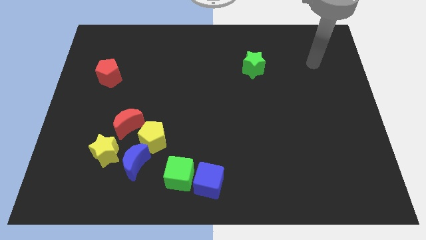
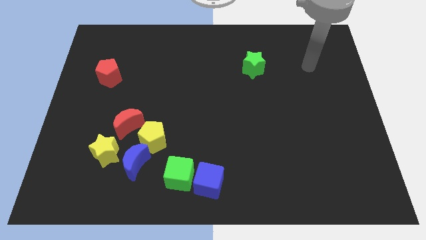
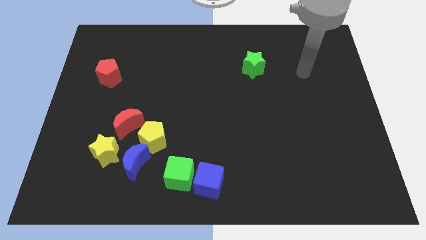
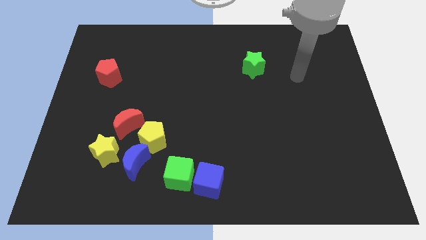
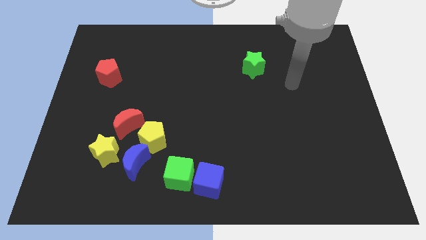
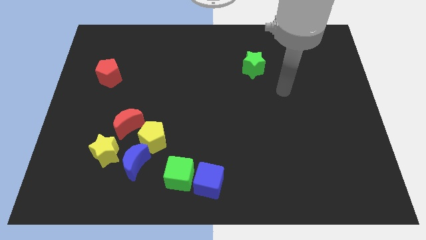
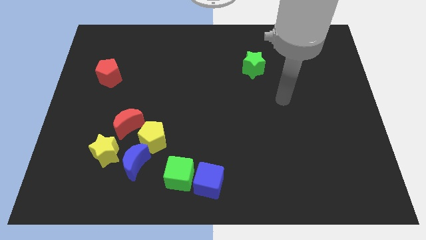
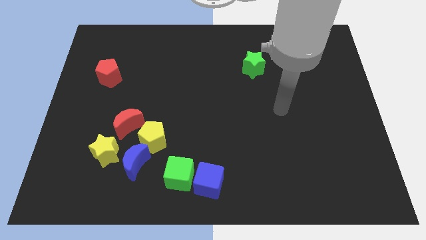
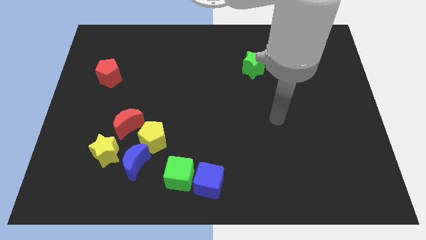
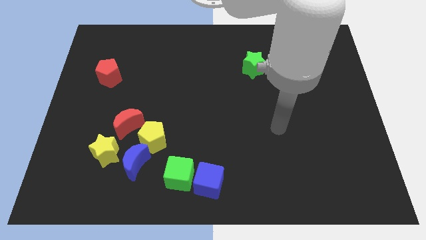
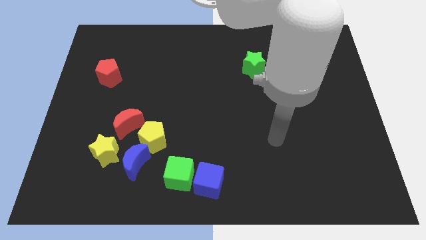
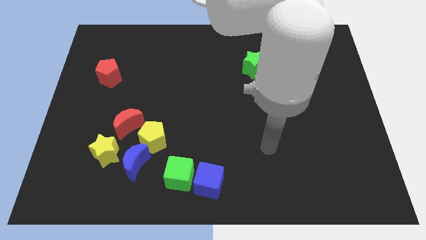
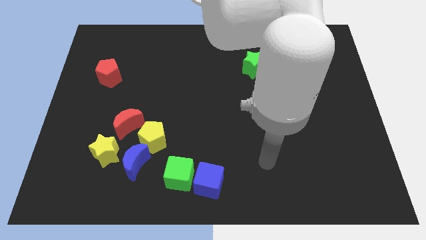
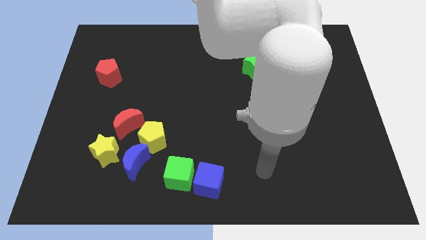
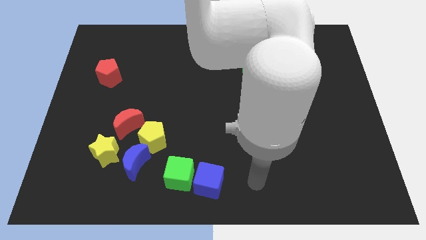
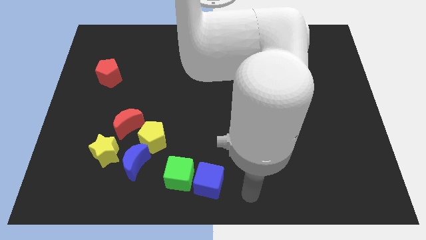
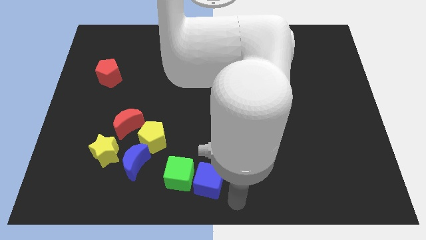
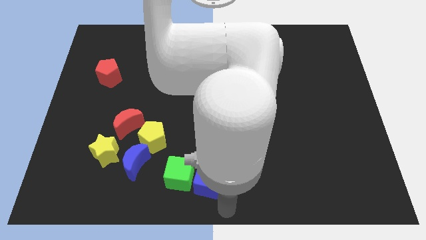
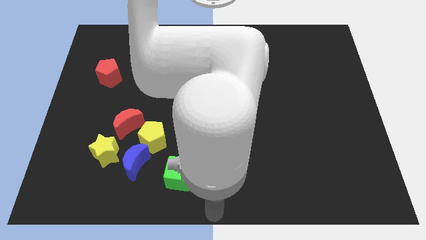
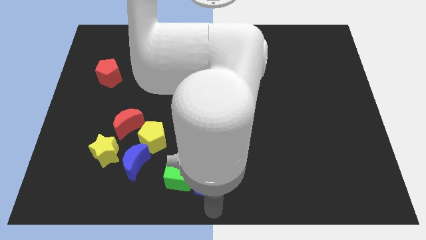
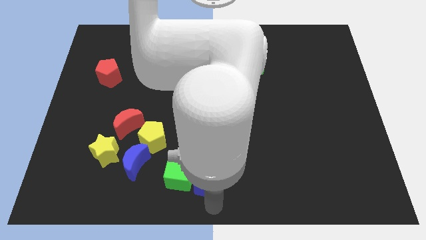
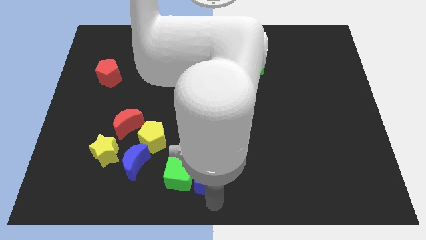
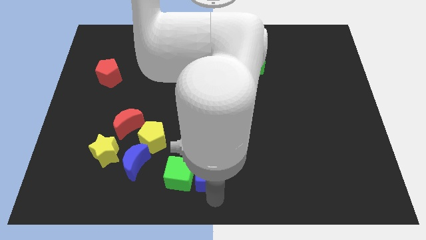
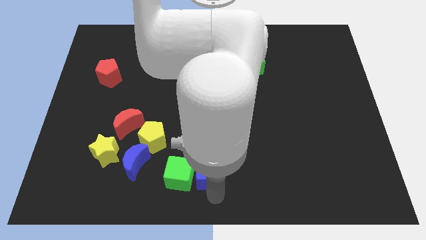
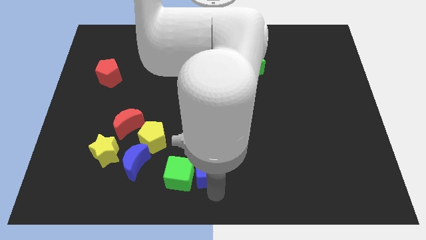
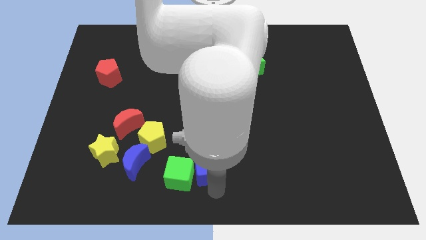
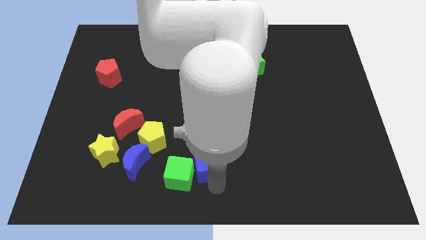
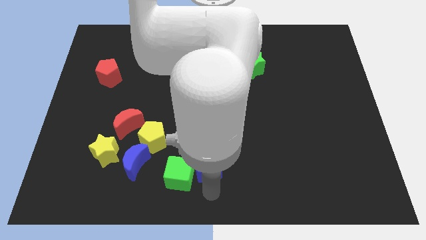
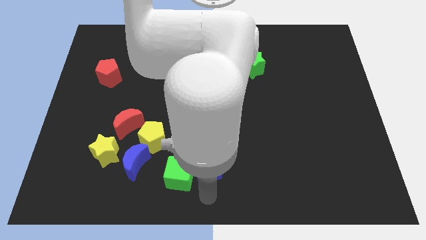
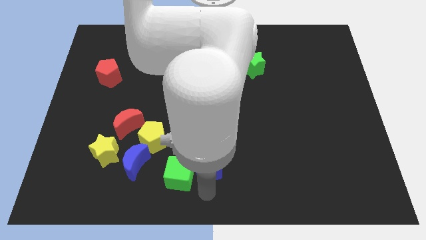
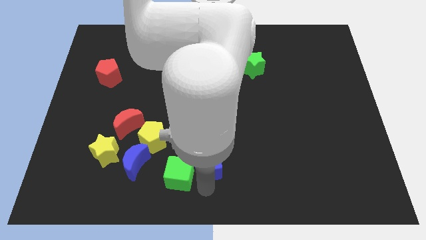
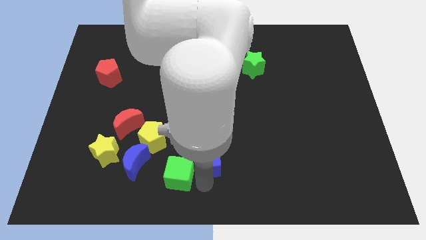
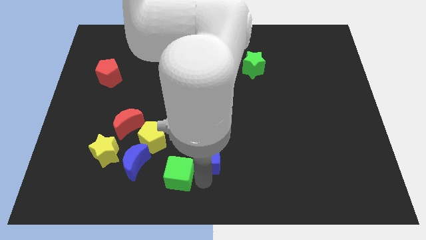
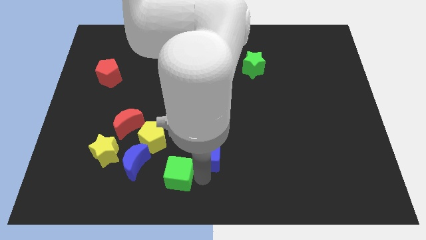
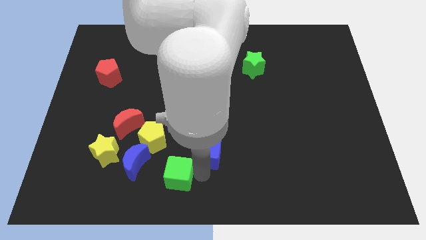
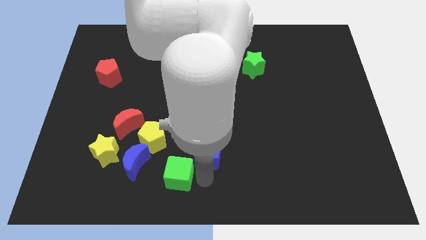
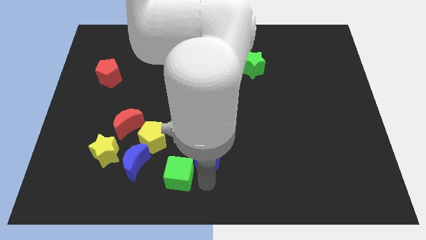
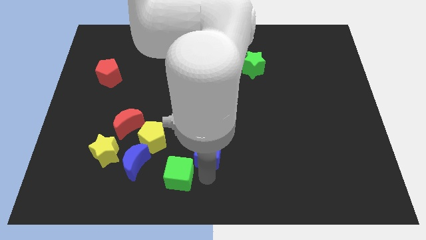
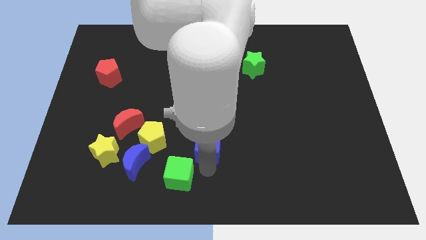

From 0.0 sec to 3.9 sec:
slightly slide the blue cube up

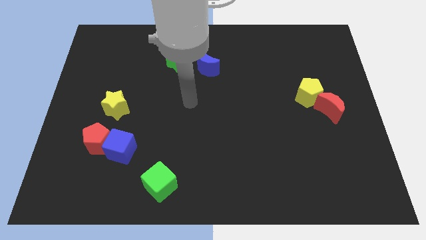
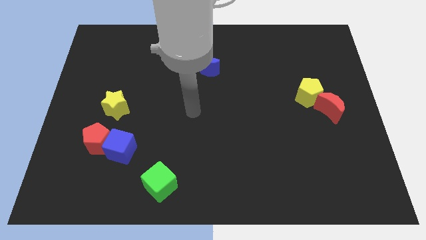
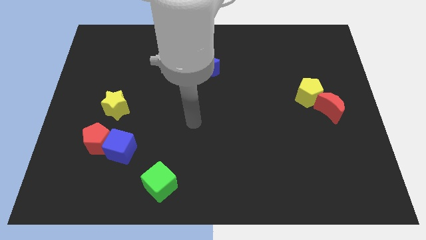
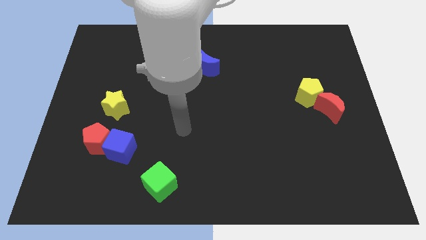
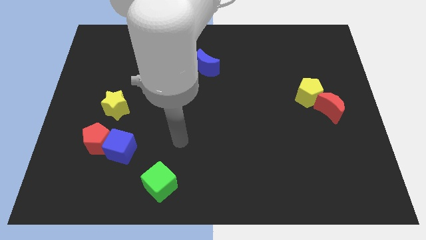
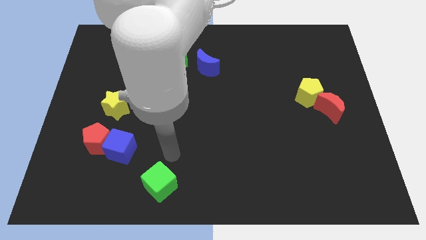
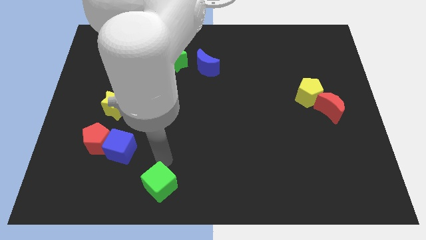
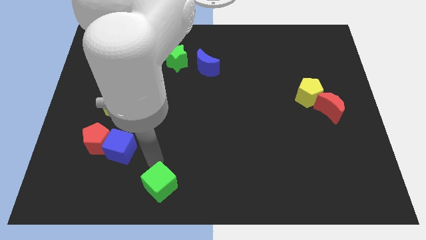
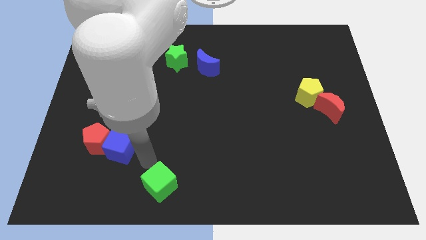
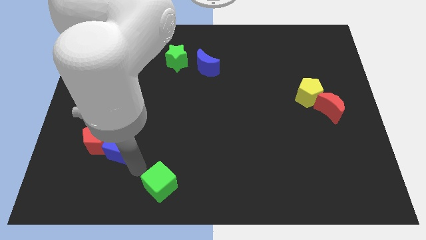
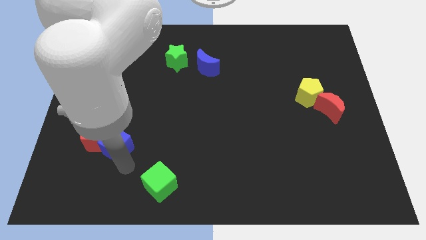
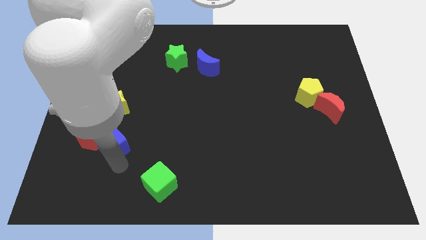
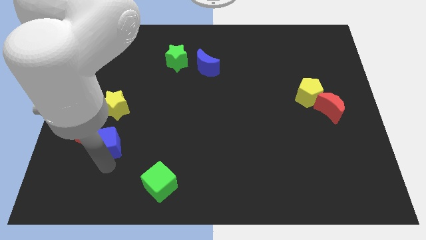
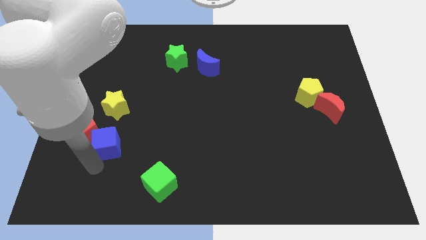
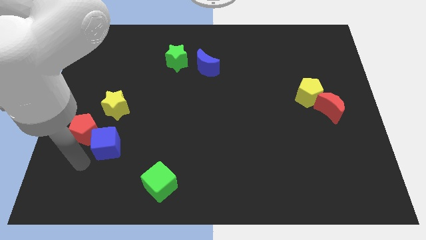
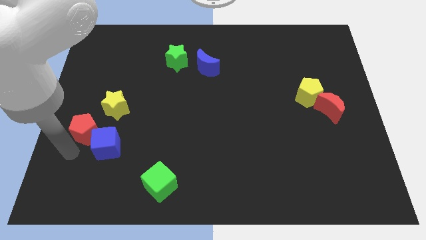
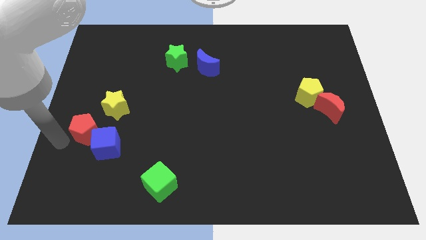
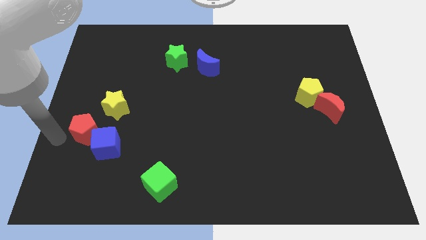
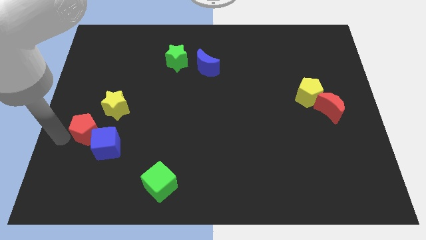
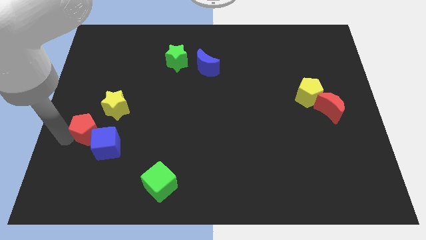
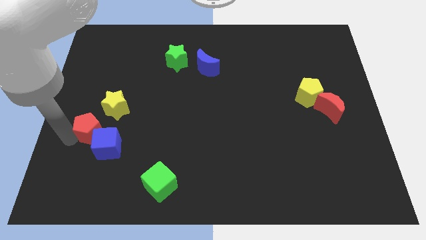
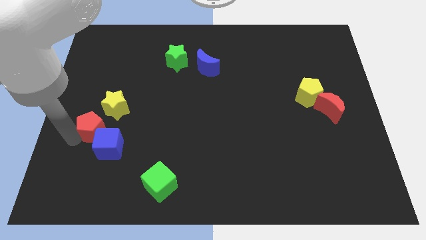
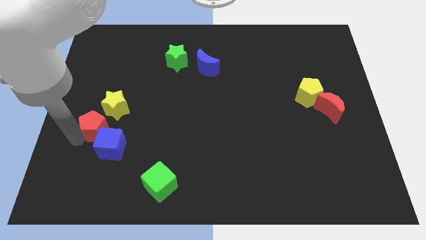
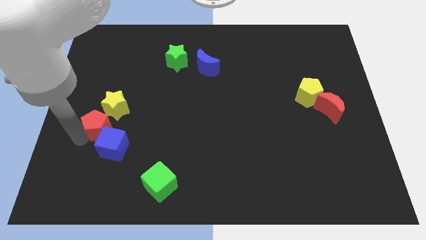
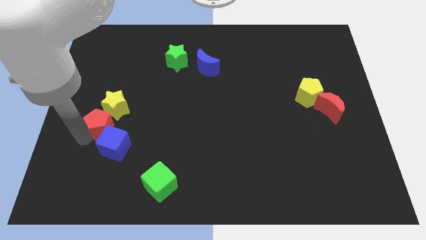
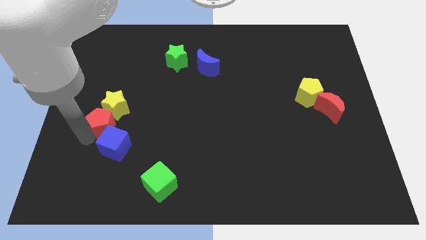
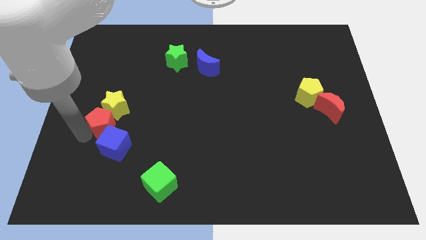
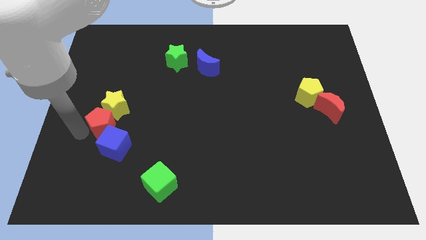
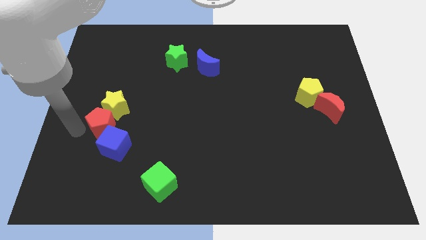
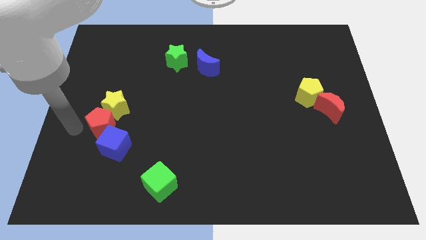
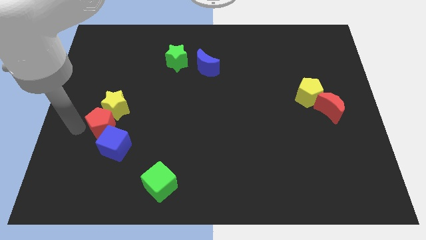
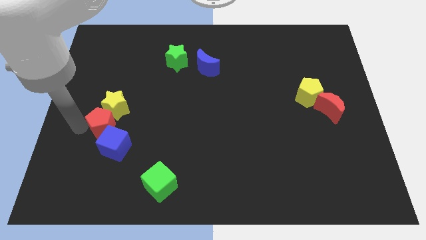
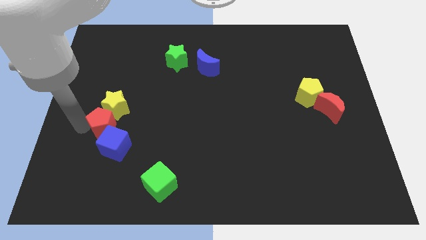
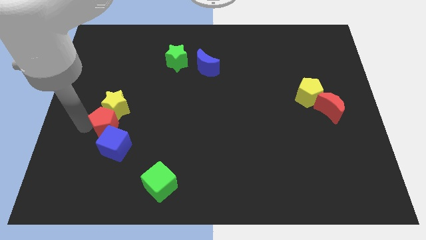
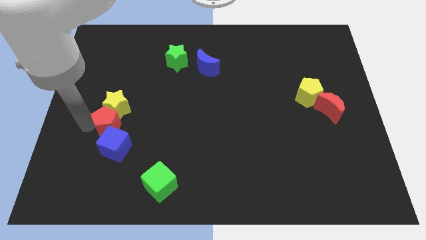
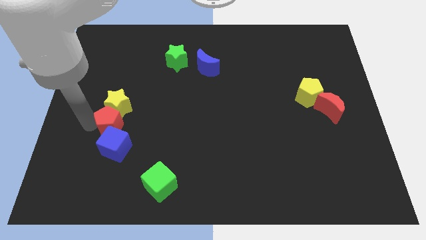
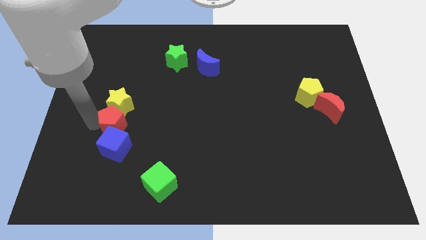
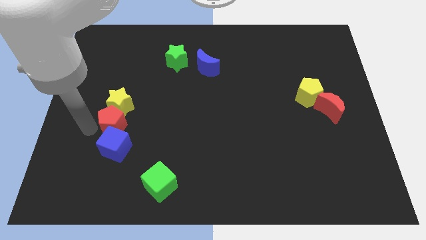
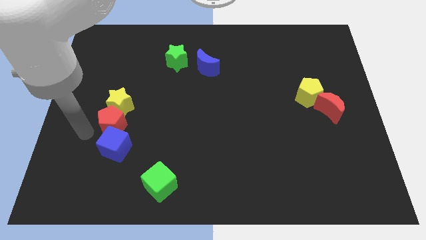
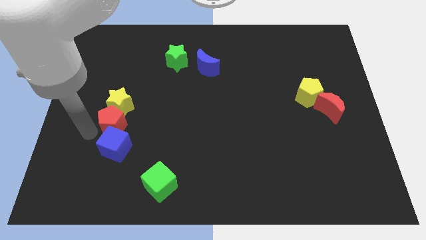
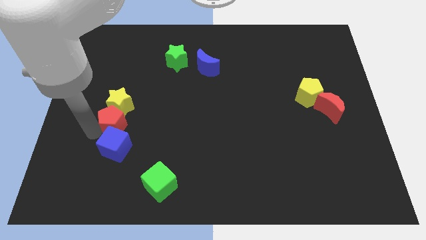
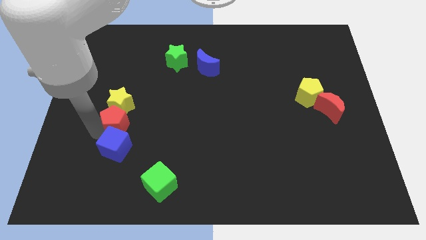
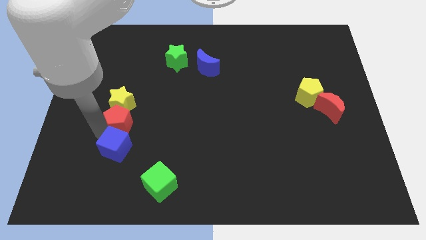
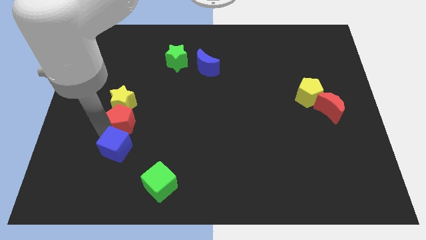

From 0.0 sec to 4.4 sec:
slide the red pentagon slightly diagonally up and to the right
